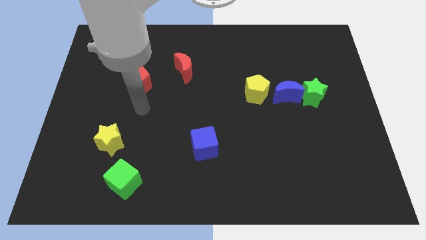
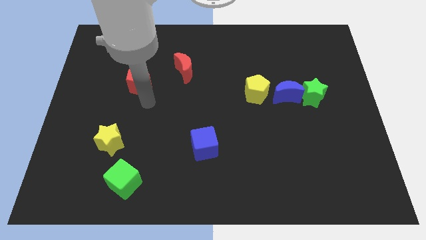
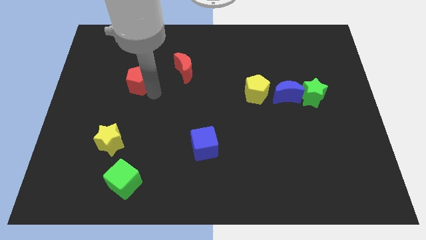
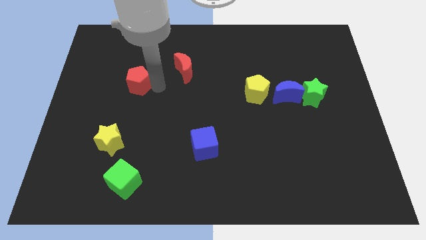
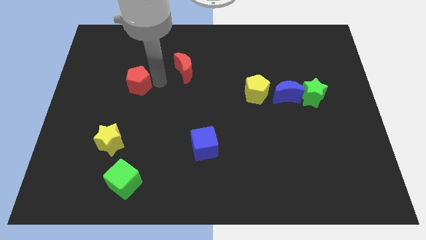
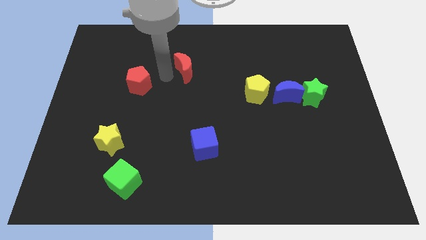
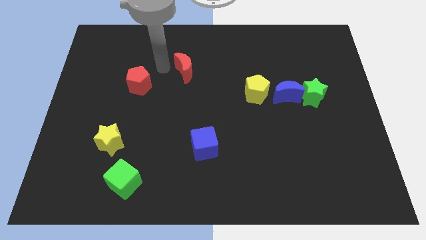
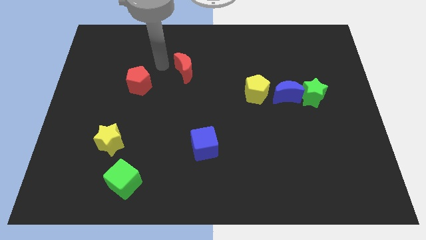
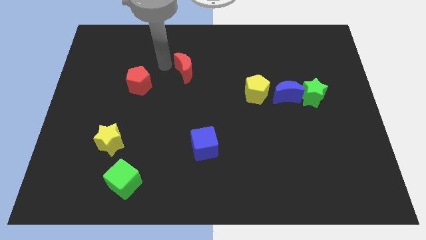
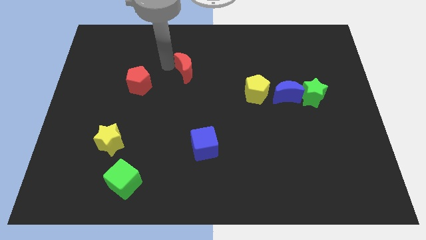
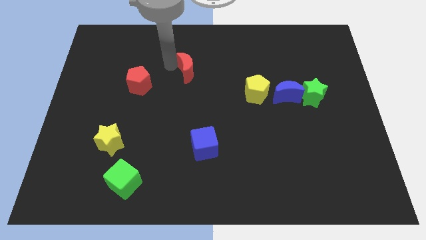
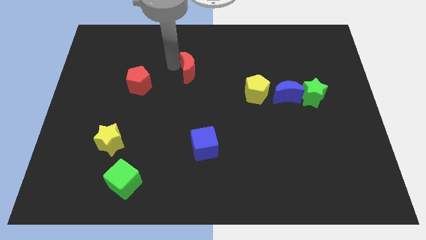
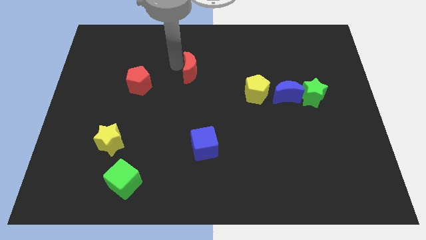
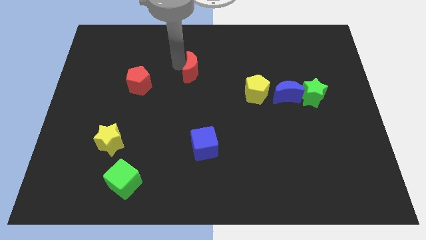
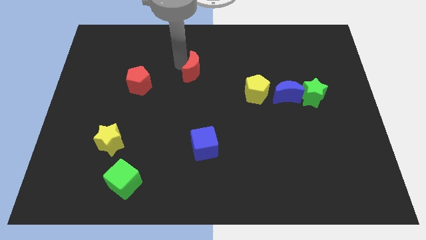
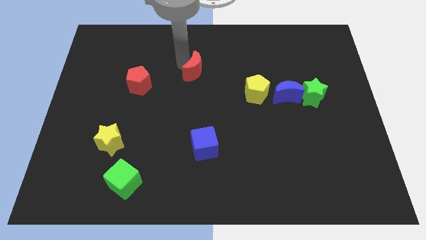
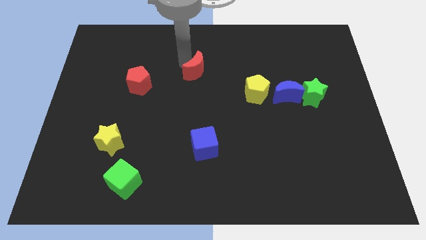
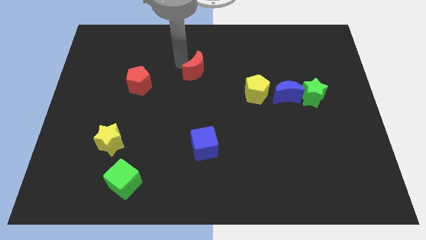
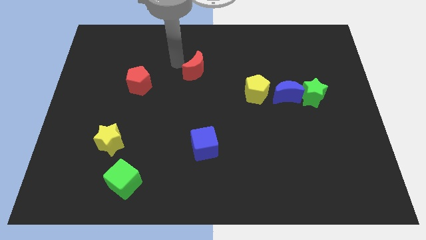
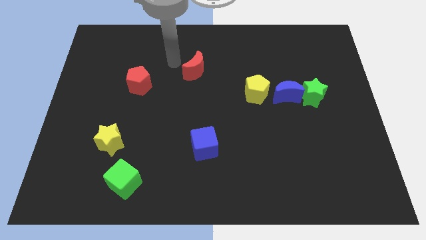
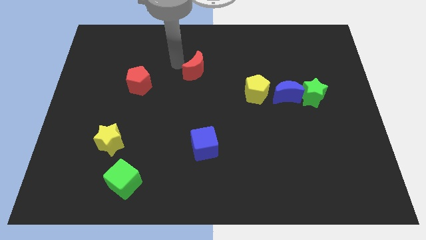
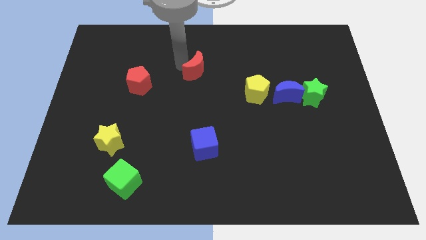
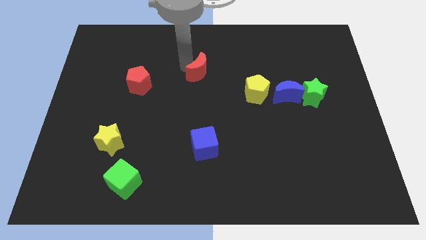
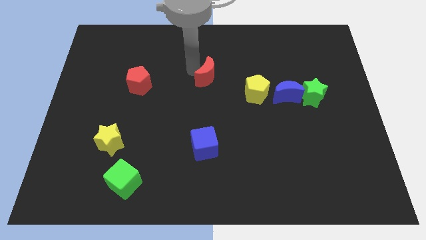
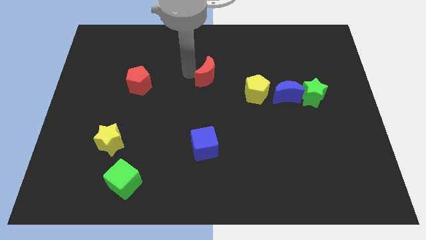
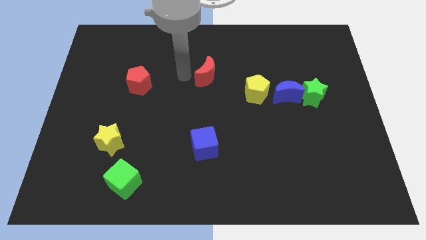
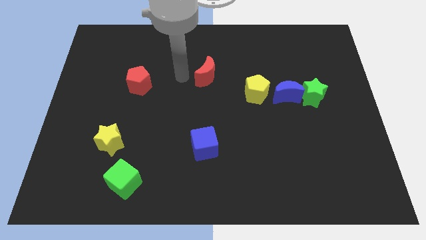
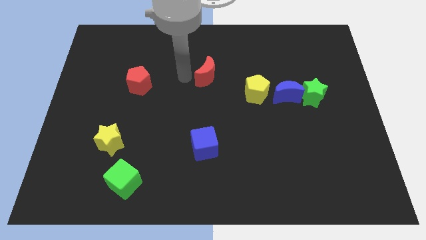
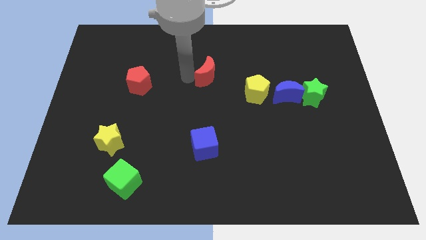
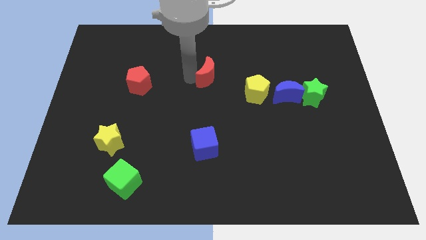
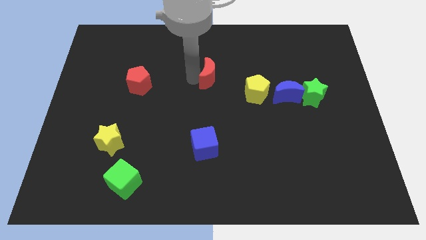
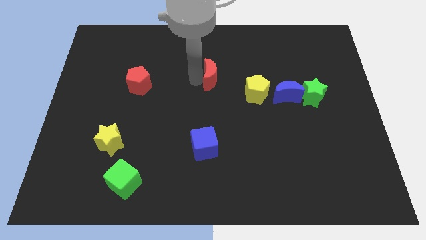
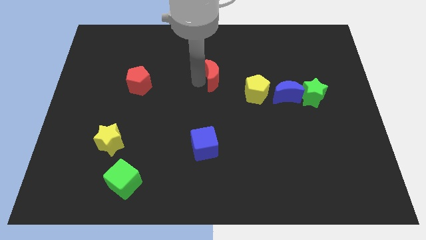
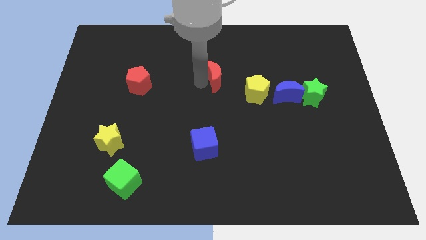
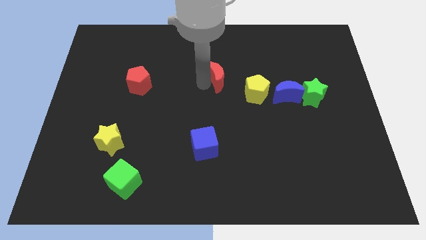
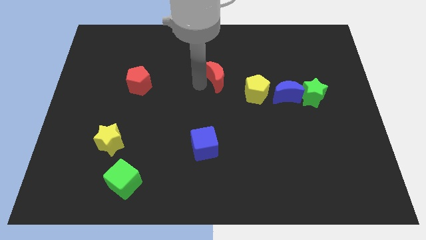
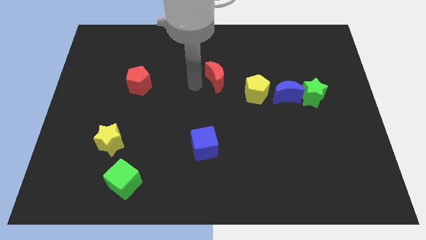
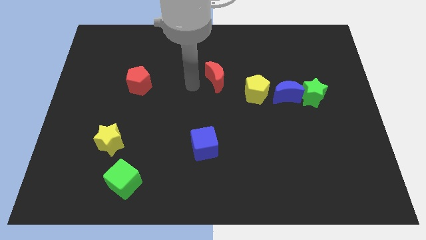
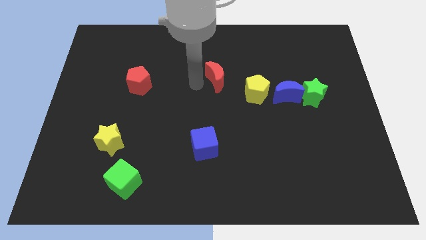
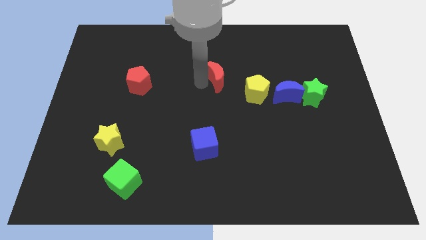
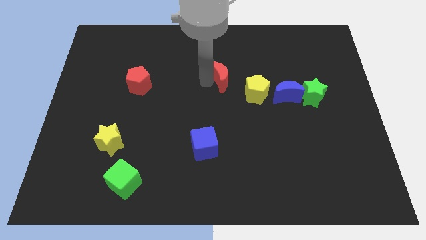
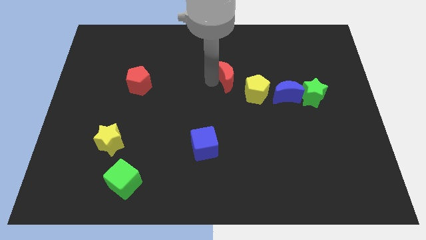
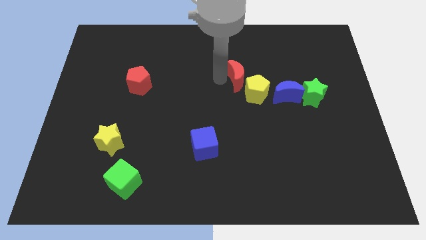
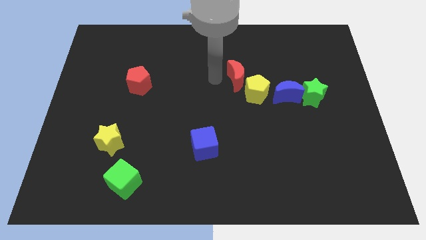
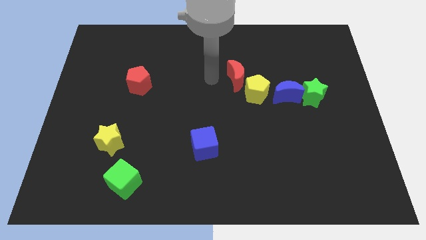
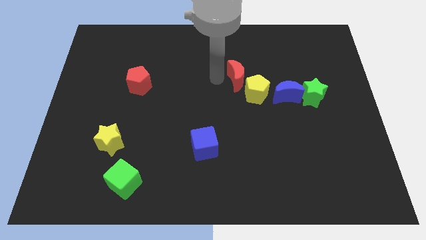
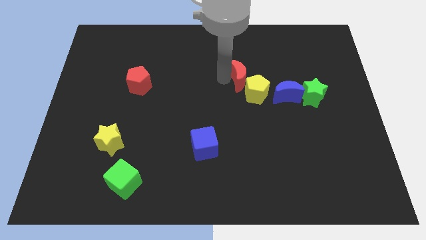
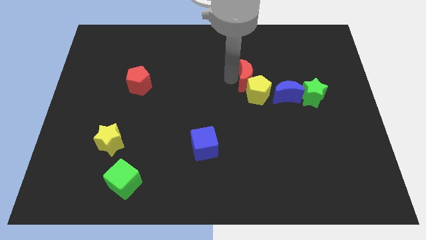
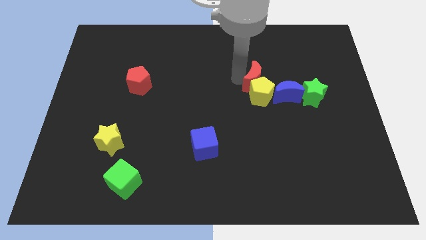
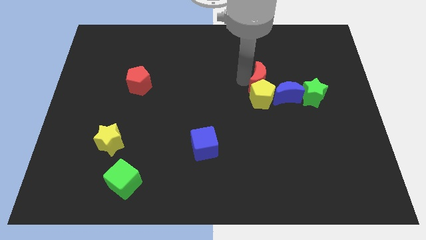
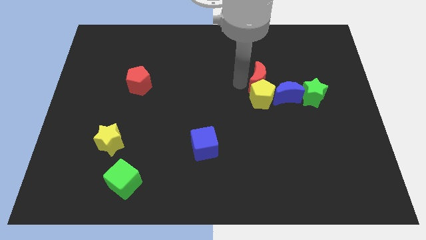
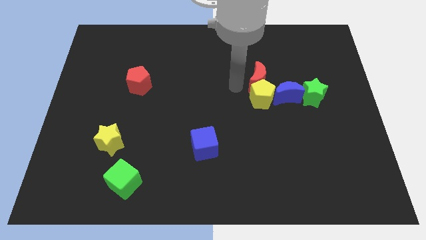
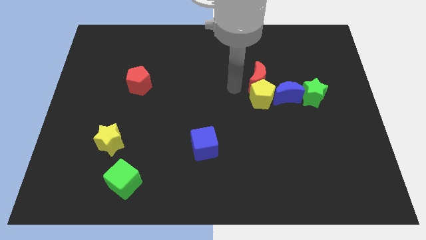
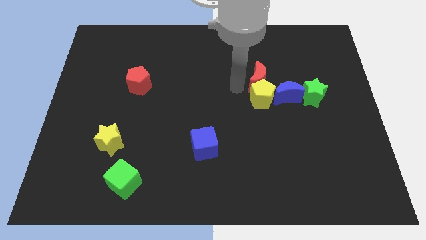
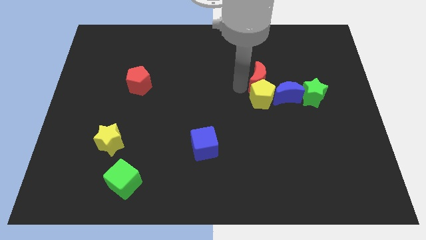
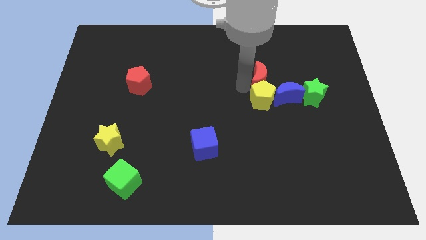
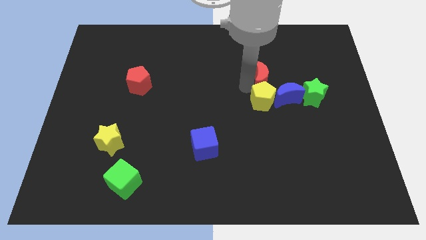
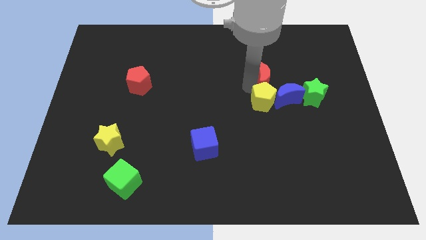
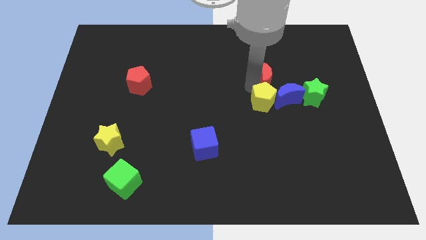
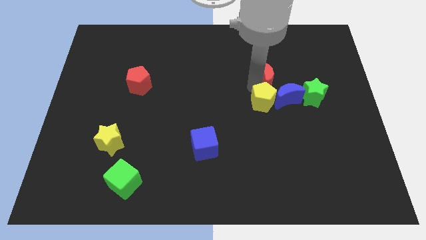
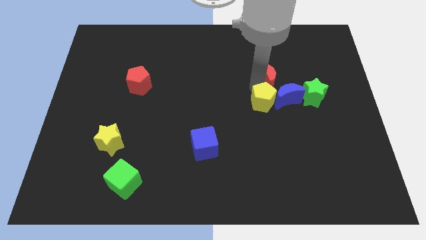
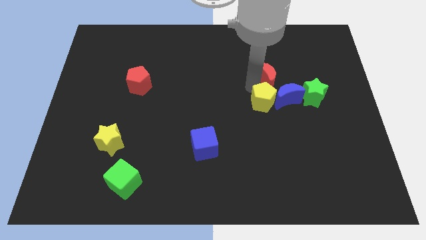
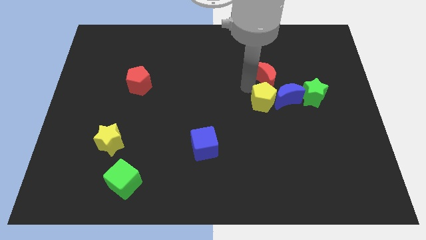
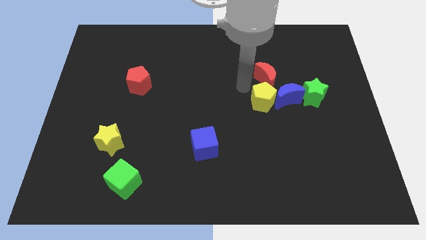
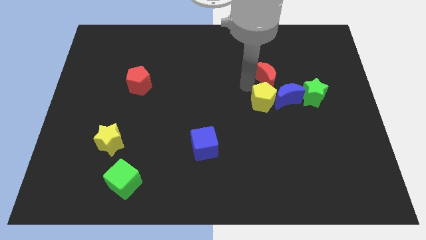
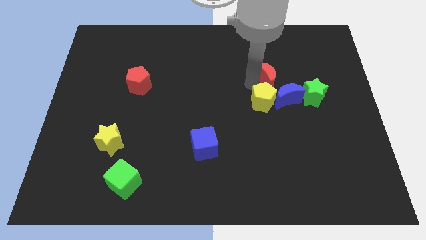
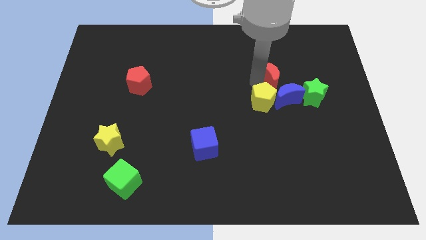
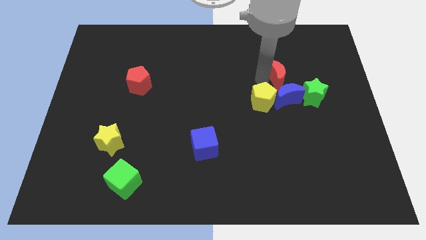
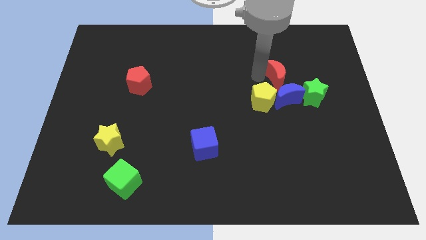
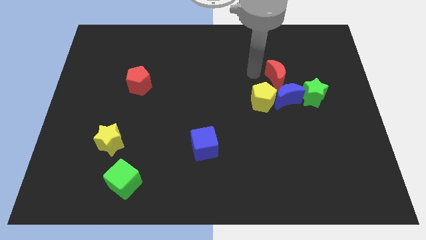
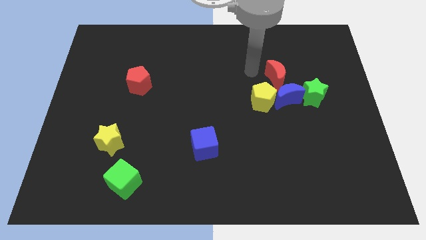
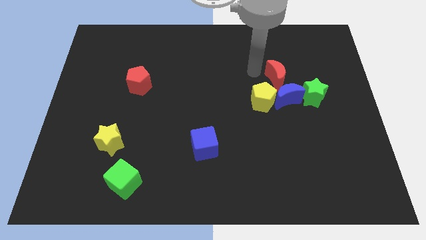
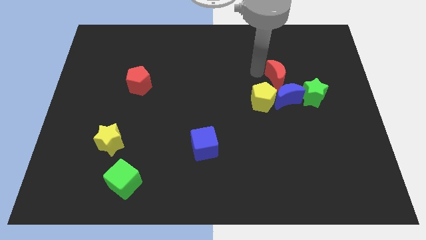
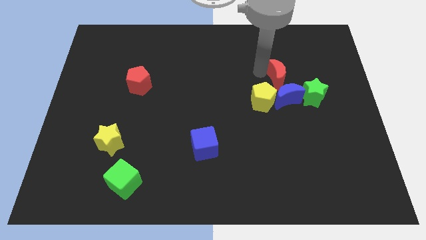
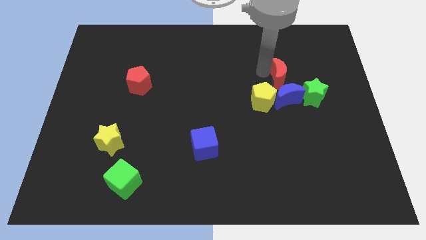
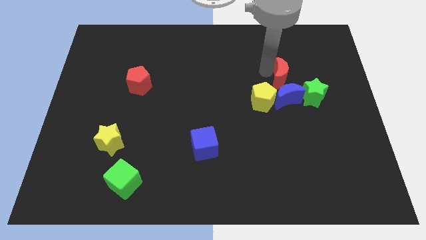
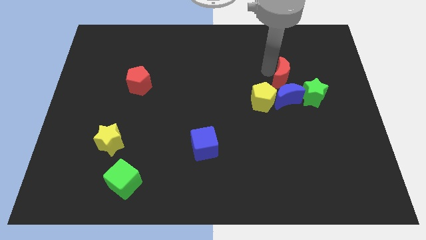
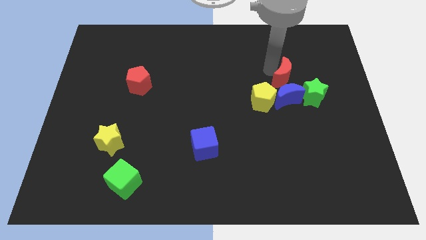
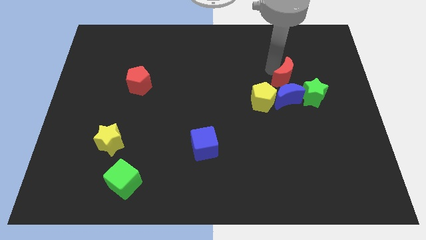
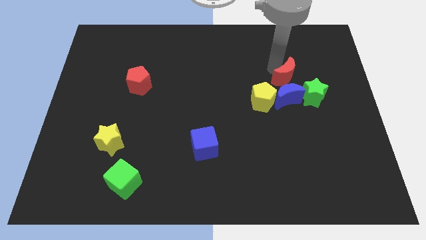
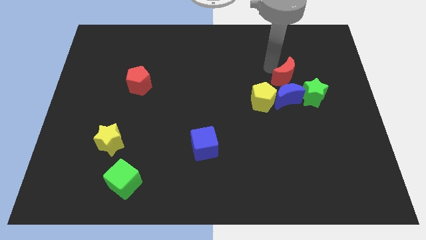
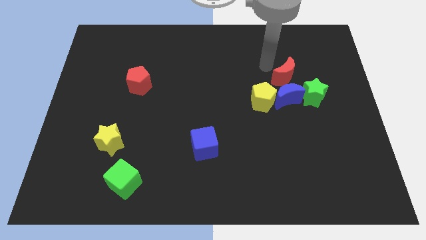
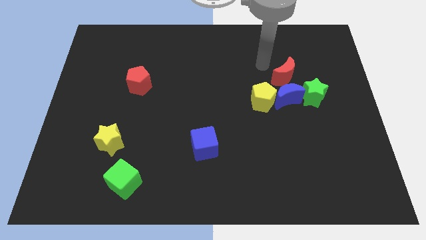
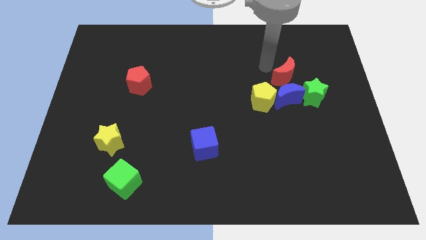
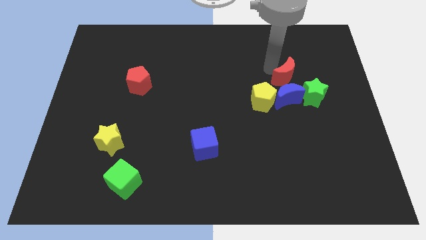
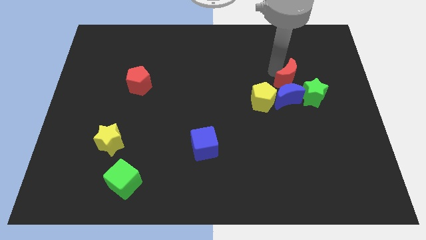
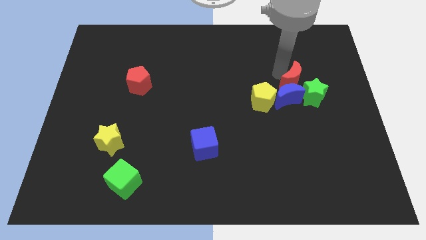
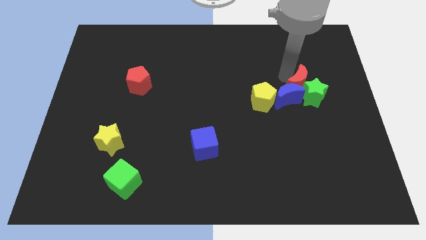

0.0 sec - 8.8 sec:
slide the red moon to the green star
